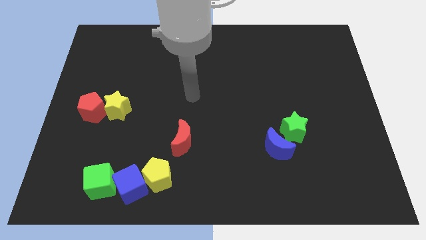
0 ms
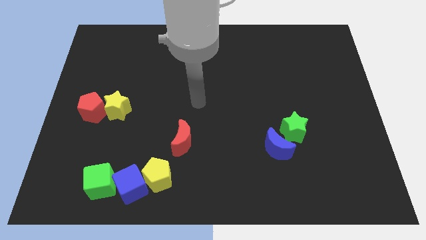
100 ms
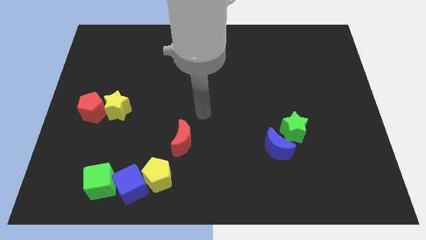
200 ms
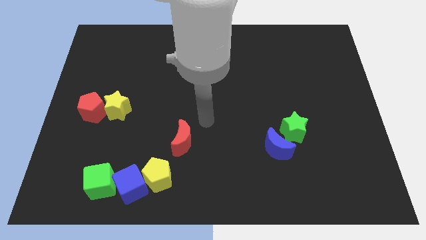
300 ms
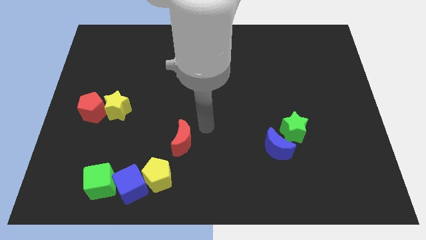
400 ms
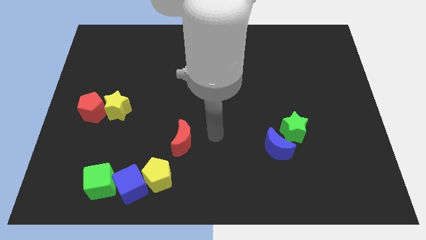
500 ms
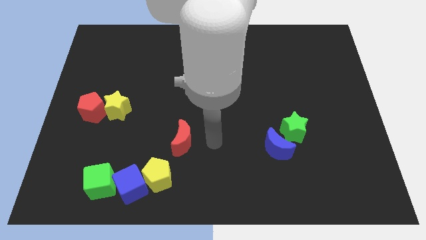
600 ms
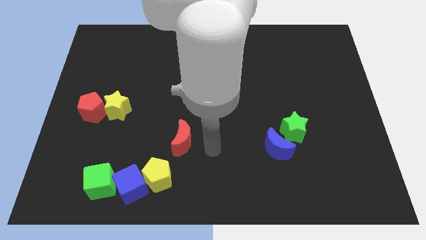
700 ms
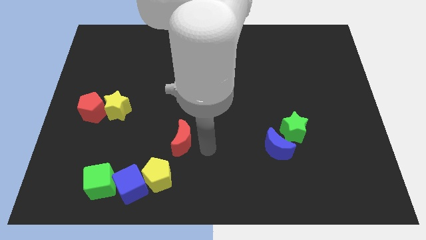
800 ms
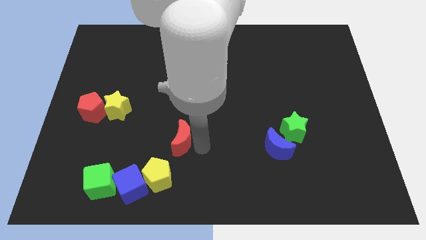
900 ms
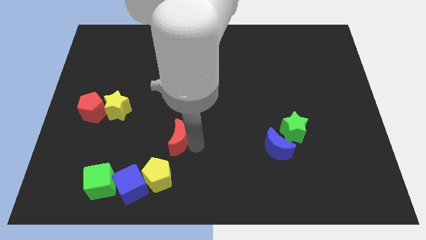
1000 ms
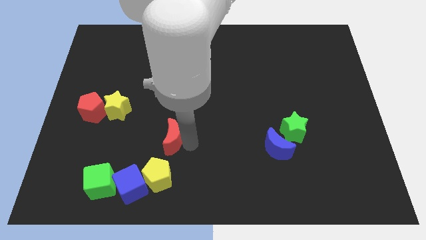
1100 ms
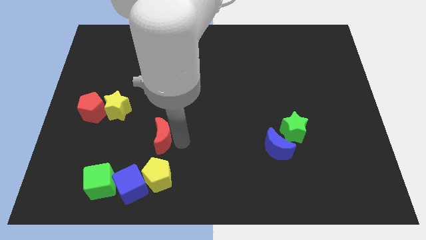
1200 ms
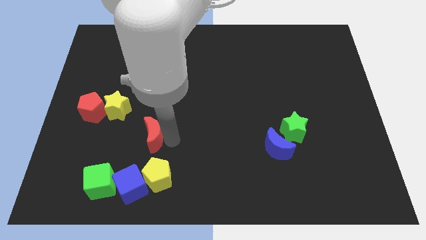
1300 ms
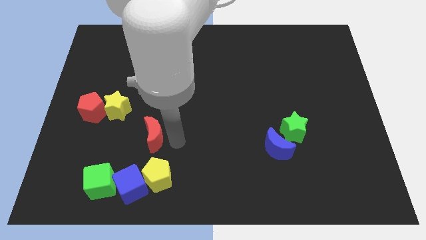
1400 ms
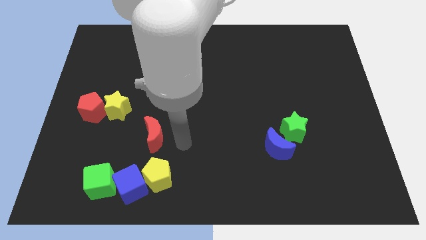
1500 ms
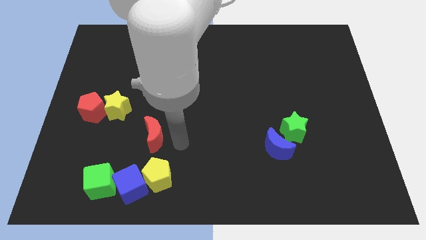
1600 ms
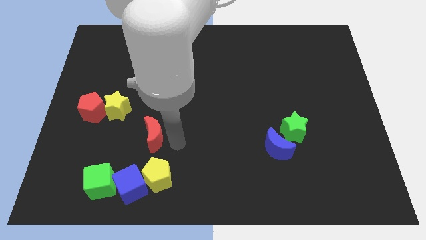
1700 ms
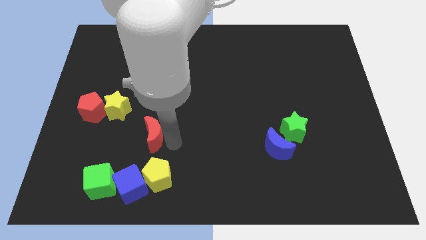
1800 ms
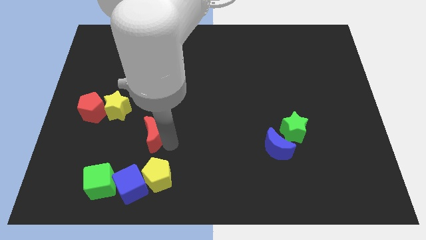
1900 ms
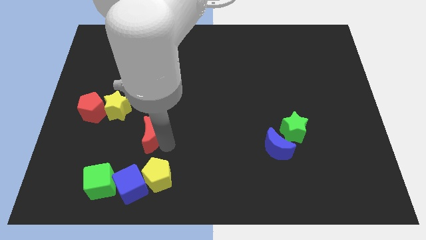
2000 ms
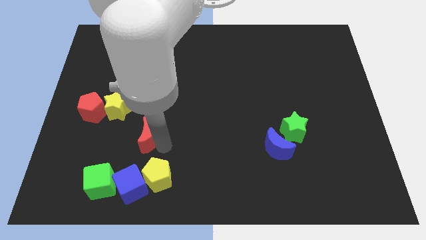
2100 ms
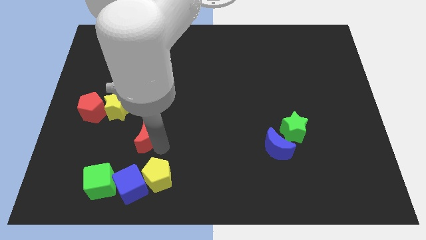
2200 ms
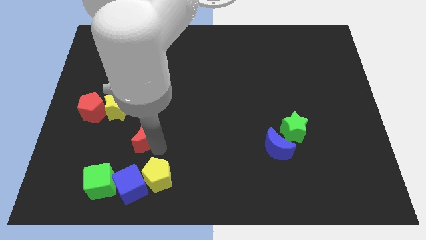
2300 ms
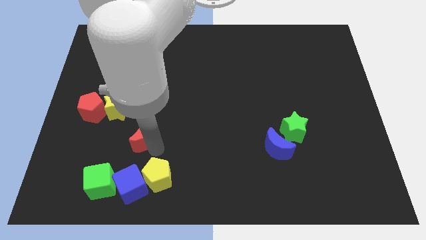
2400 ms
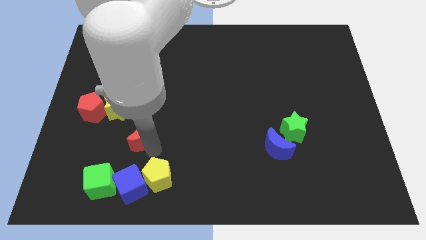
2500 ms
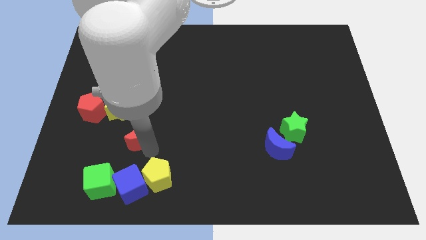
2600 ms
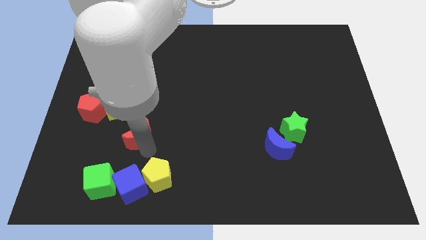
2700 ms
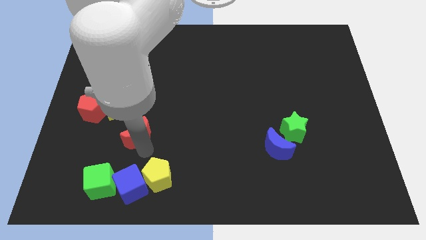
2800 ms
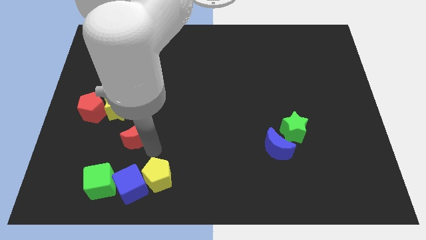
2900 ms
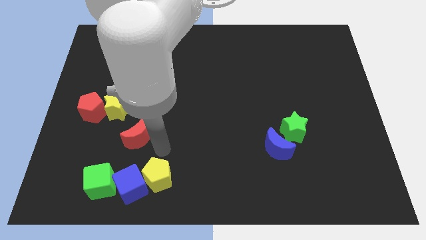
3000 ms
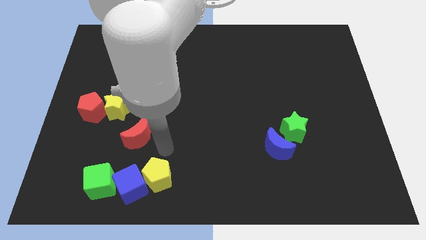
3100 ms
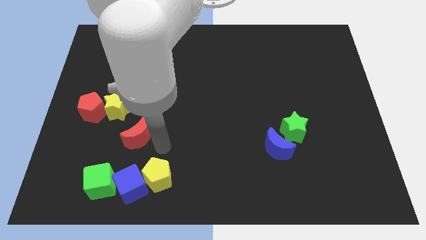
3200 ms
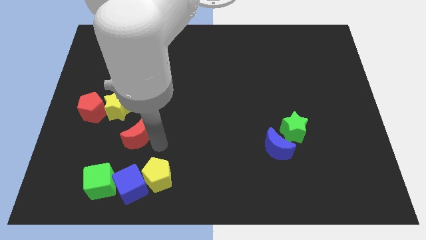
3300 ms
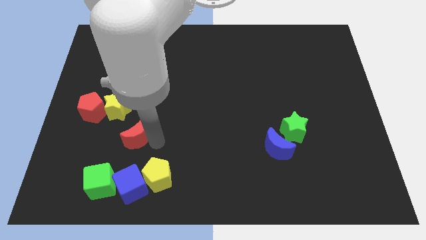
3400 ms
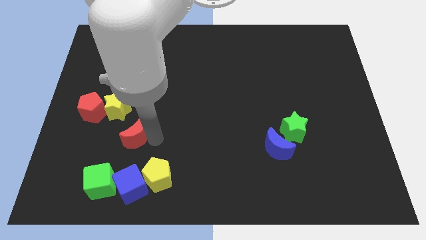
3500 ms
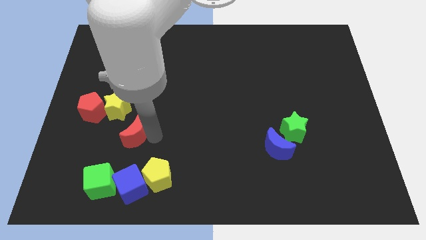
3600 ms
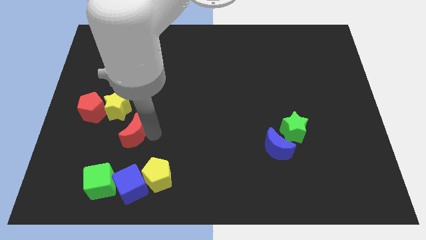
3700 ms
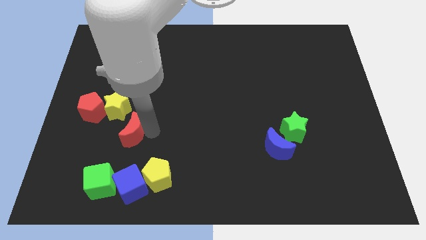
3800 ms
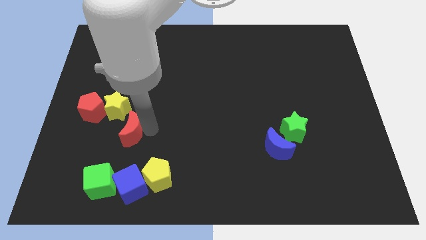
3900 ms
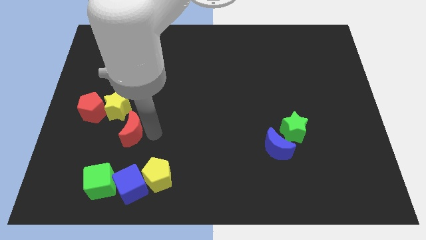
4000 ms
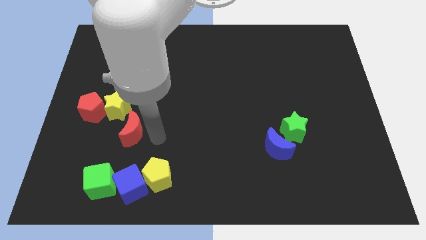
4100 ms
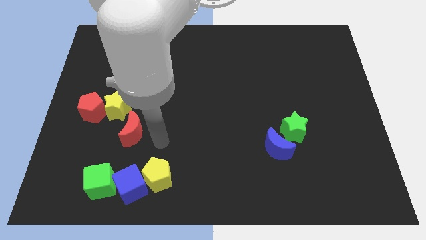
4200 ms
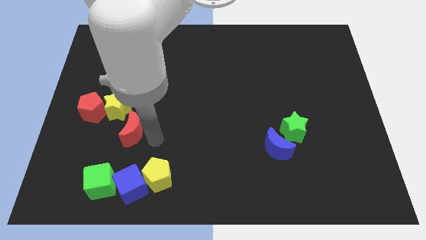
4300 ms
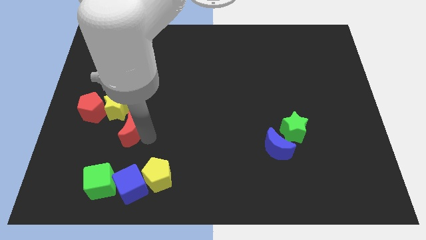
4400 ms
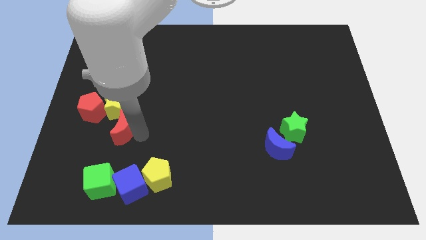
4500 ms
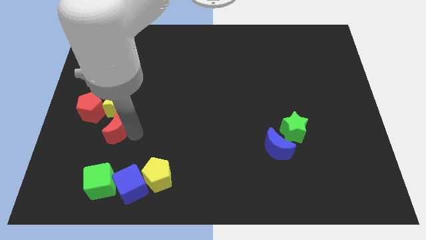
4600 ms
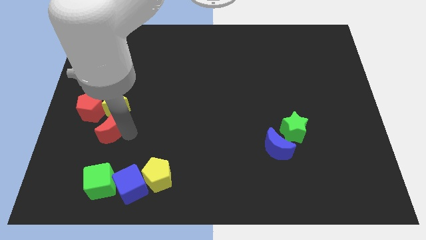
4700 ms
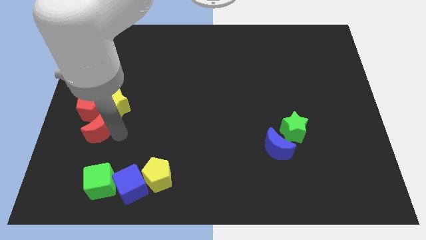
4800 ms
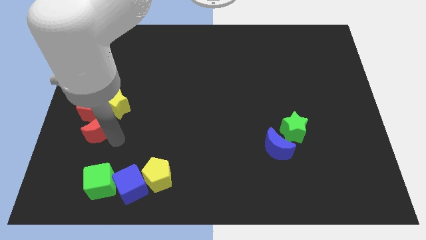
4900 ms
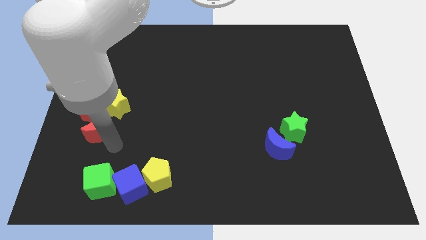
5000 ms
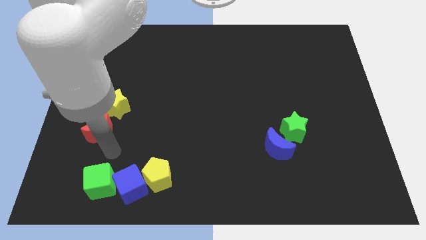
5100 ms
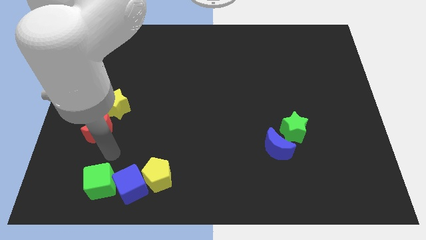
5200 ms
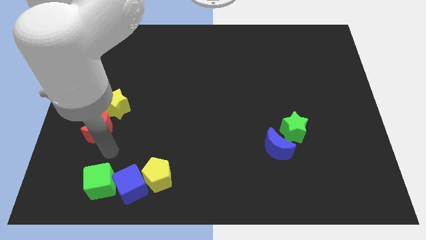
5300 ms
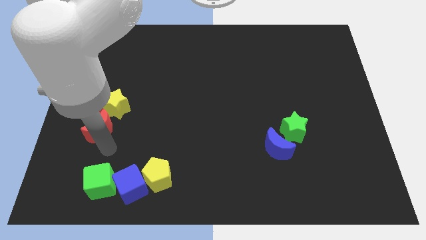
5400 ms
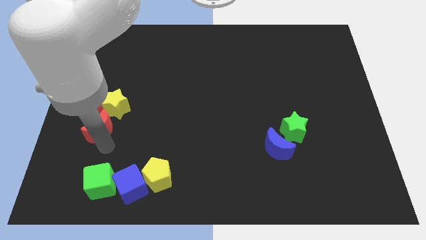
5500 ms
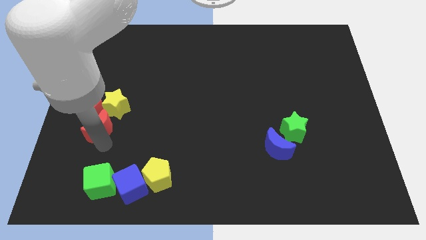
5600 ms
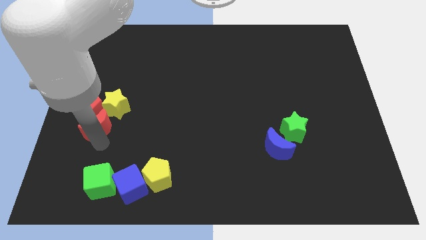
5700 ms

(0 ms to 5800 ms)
push the red moon to the red pentagon

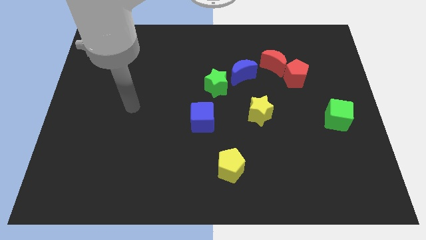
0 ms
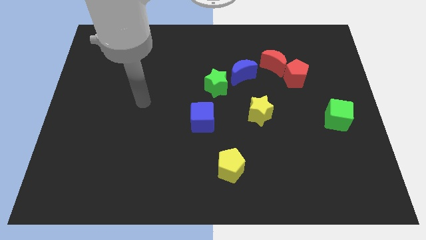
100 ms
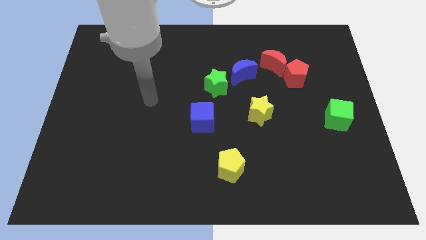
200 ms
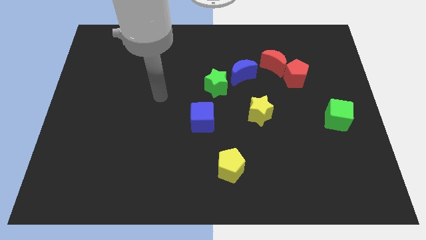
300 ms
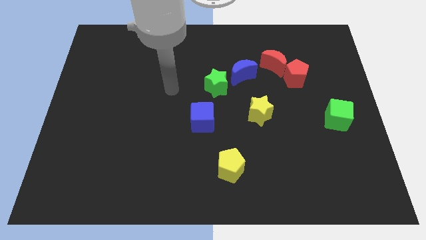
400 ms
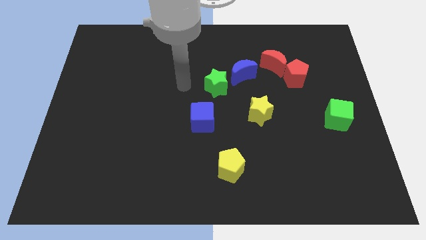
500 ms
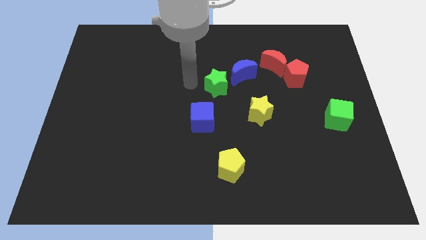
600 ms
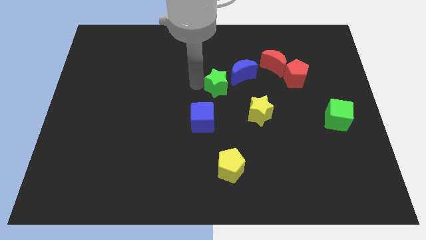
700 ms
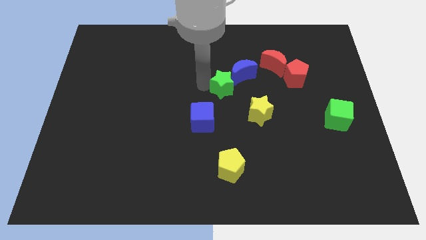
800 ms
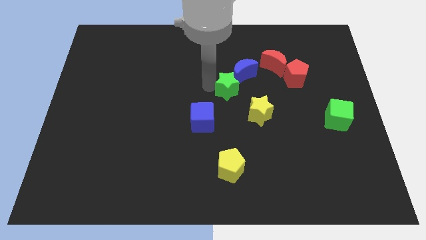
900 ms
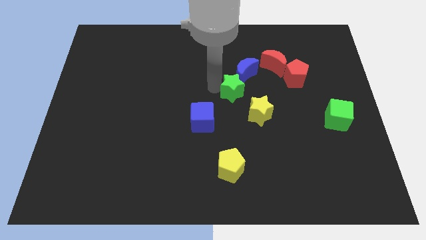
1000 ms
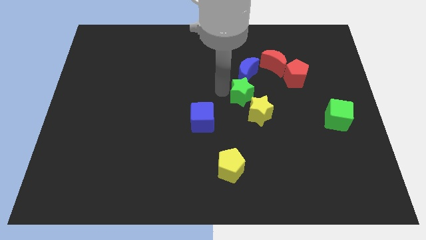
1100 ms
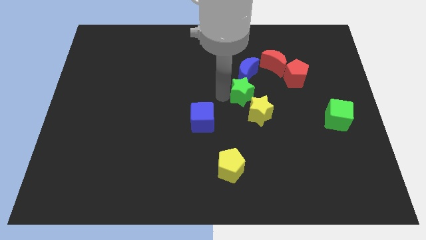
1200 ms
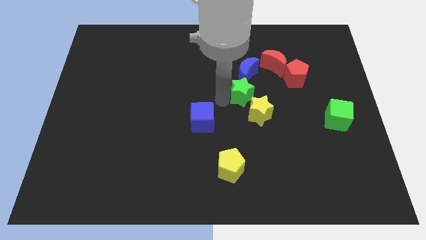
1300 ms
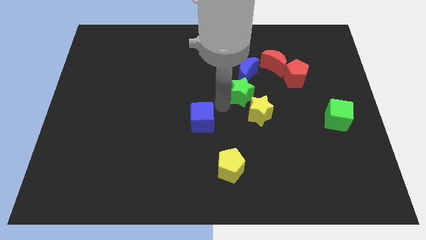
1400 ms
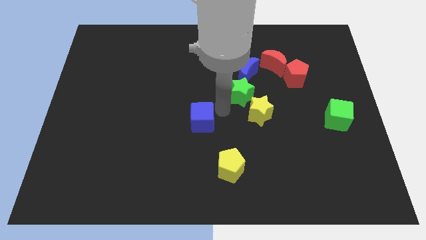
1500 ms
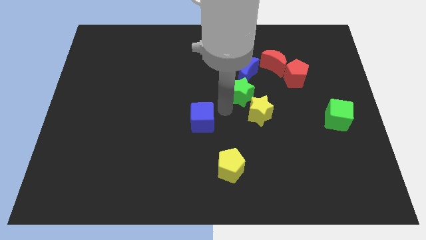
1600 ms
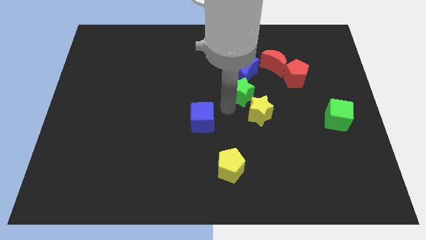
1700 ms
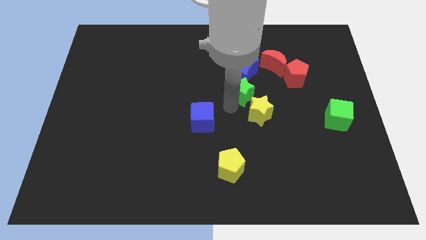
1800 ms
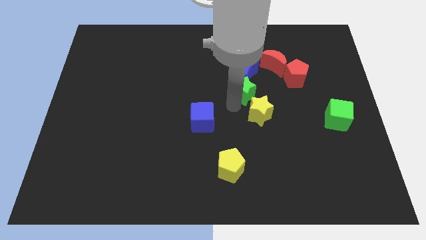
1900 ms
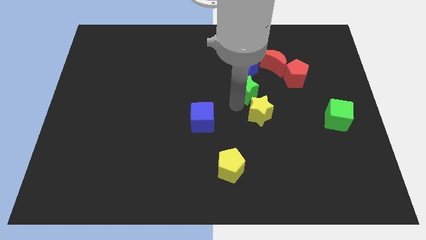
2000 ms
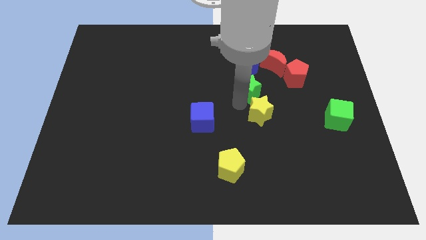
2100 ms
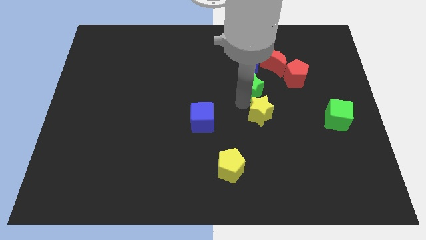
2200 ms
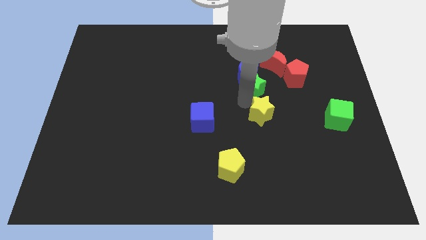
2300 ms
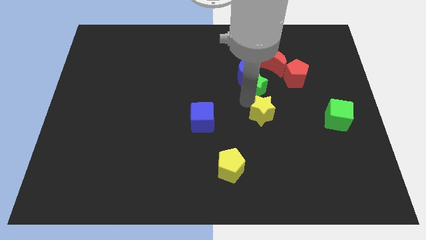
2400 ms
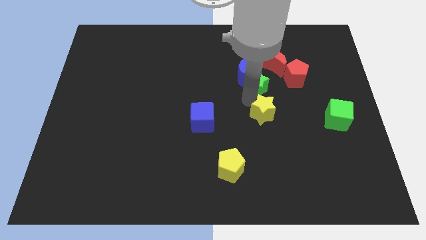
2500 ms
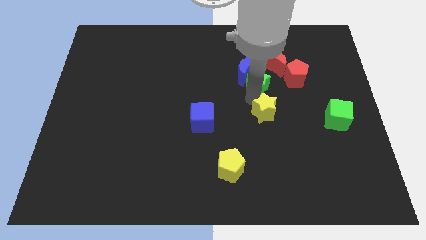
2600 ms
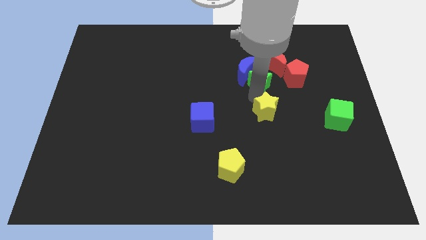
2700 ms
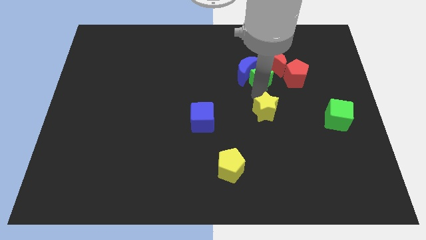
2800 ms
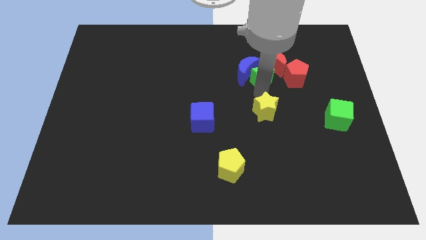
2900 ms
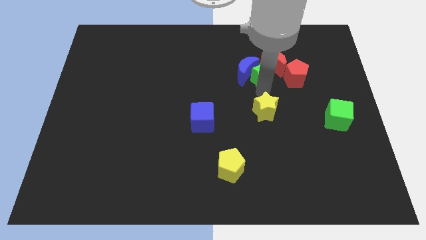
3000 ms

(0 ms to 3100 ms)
slide the green star towards the red moon
